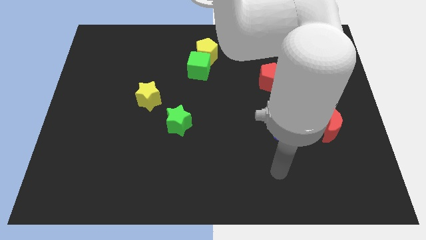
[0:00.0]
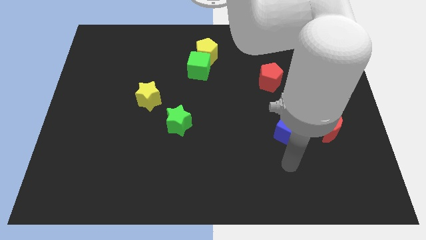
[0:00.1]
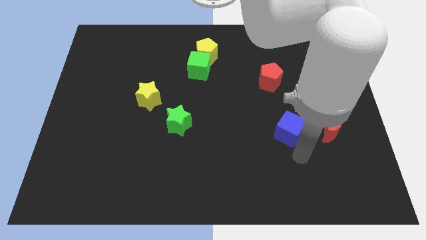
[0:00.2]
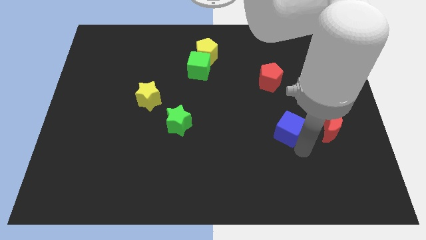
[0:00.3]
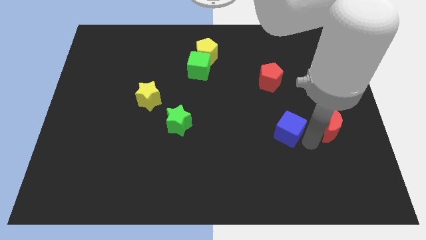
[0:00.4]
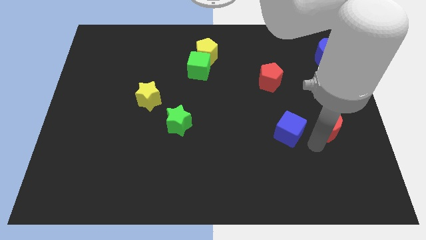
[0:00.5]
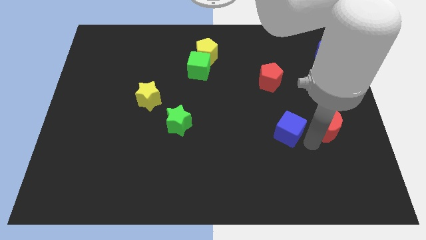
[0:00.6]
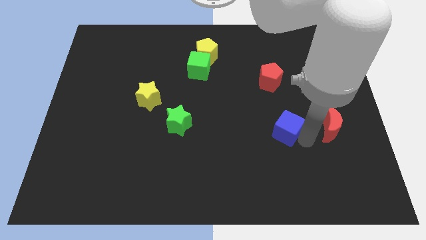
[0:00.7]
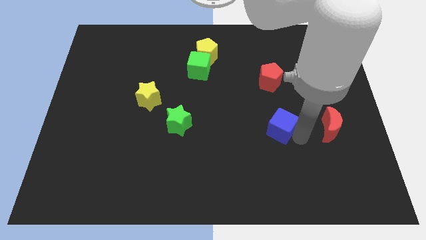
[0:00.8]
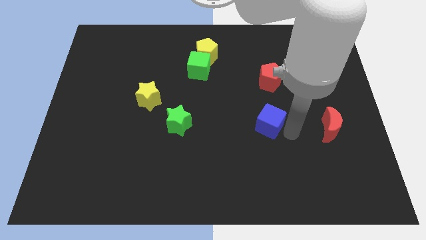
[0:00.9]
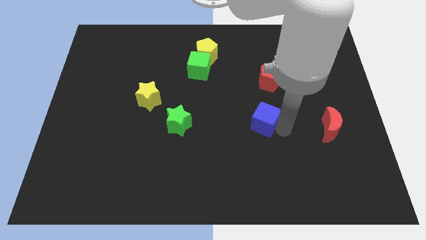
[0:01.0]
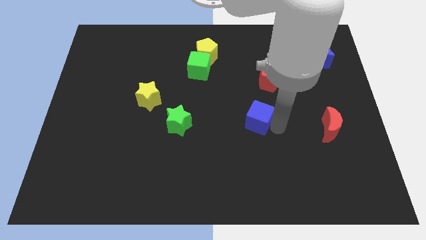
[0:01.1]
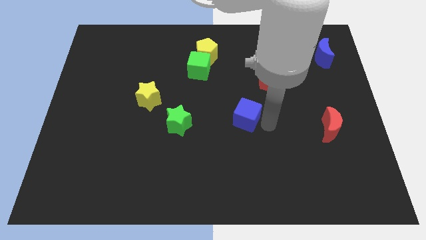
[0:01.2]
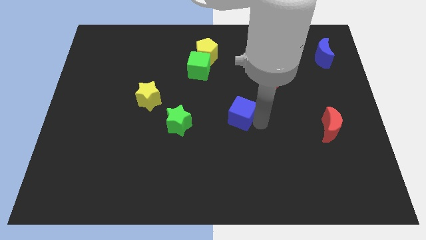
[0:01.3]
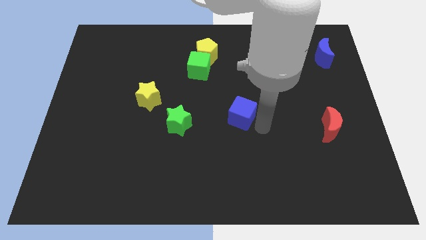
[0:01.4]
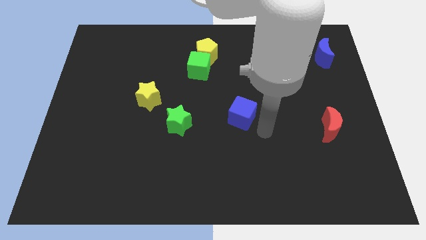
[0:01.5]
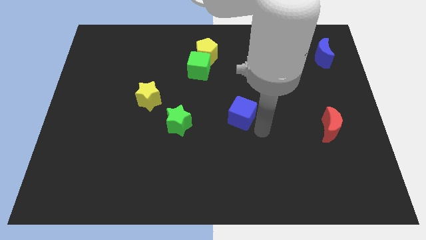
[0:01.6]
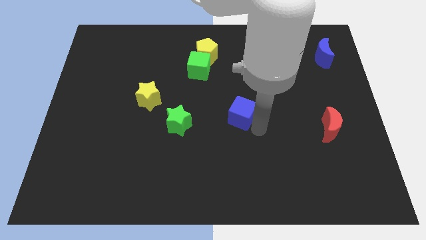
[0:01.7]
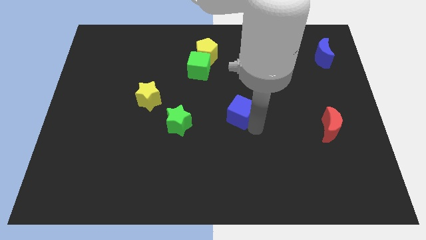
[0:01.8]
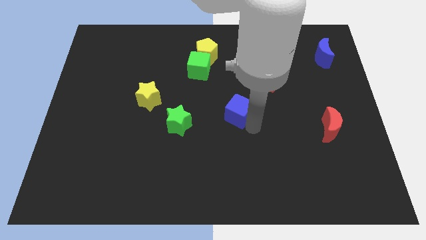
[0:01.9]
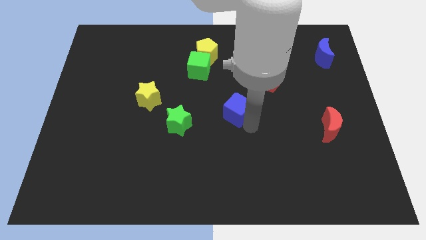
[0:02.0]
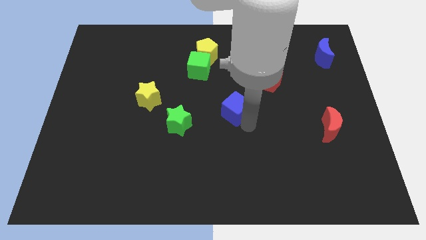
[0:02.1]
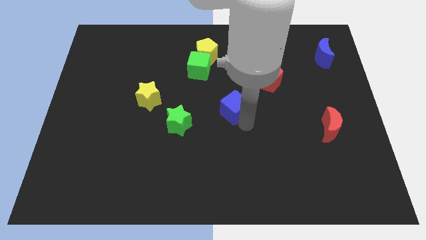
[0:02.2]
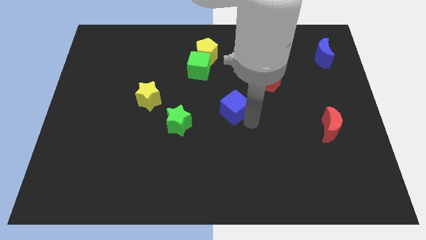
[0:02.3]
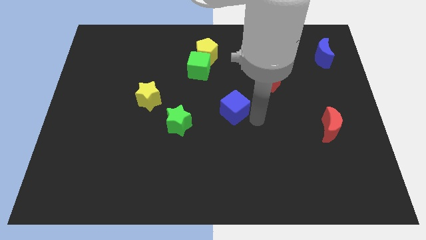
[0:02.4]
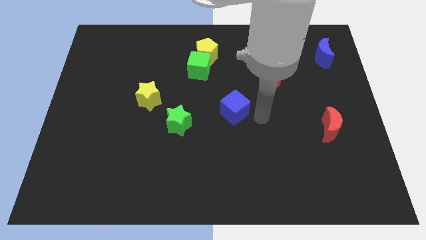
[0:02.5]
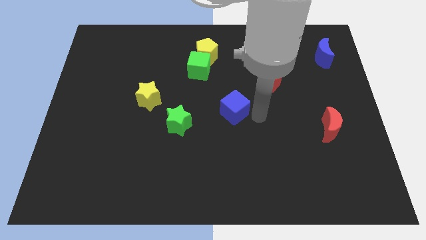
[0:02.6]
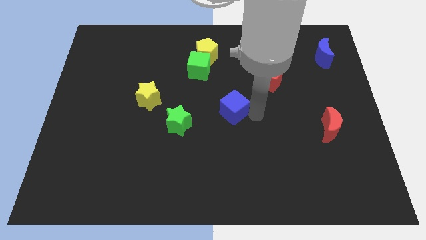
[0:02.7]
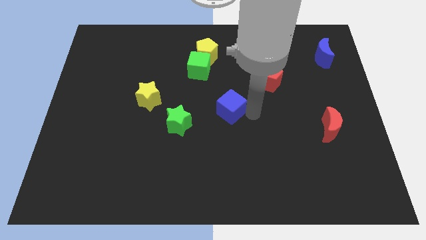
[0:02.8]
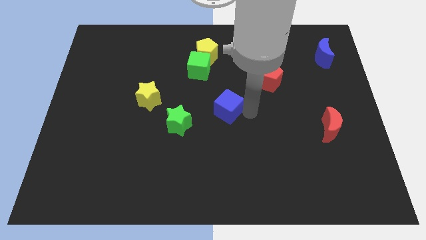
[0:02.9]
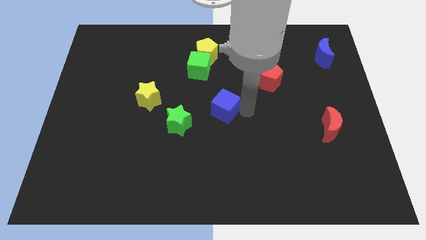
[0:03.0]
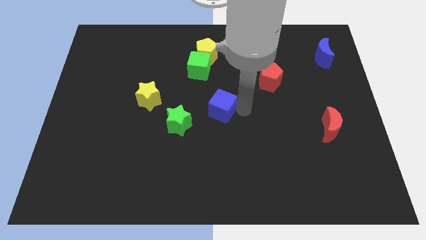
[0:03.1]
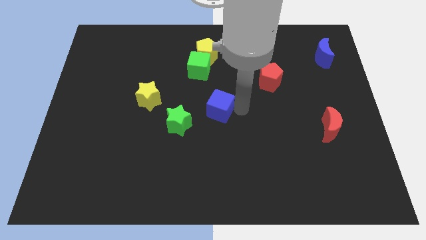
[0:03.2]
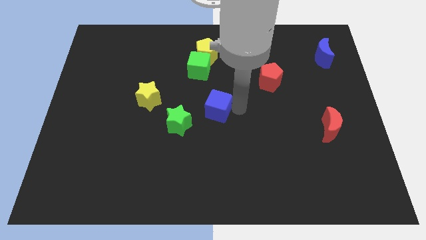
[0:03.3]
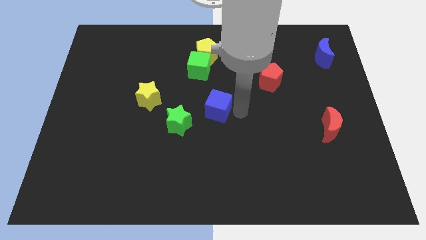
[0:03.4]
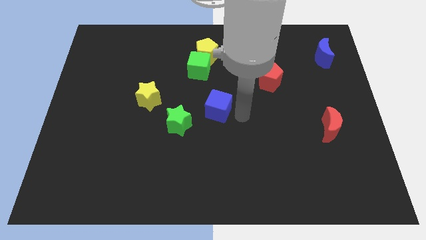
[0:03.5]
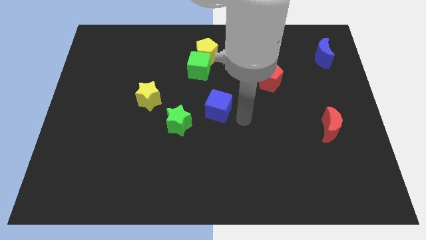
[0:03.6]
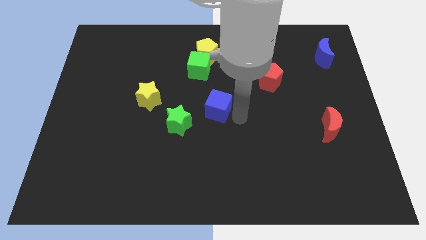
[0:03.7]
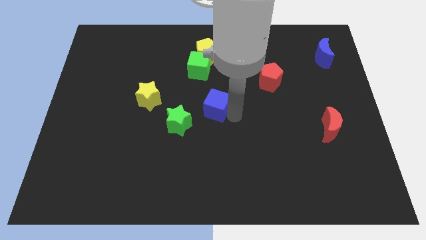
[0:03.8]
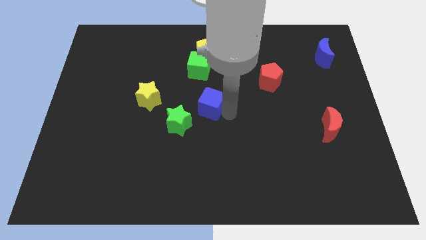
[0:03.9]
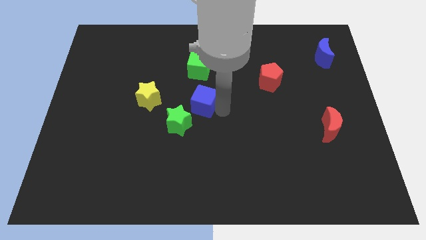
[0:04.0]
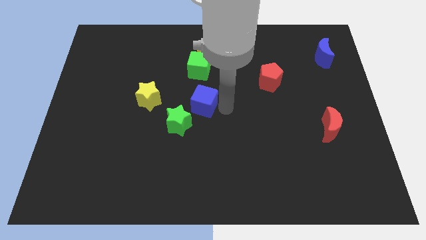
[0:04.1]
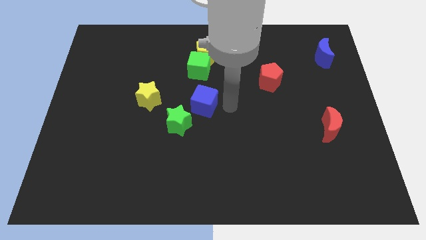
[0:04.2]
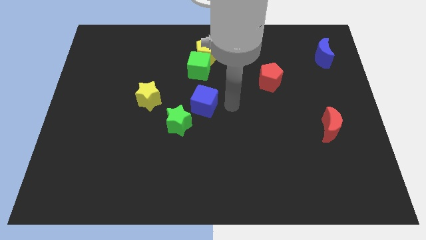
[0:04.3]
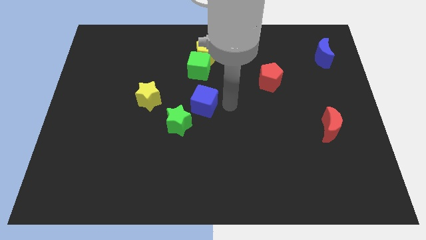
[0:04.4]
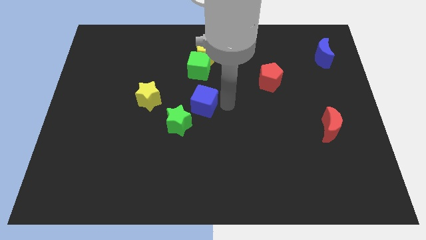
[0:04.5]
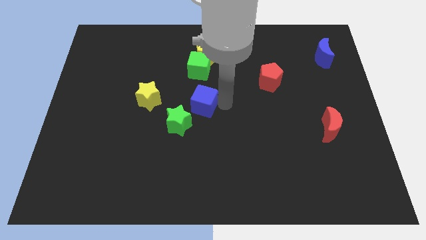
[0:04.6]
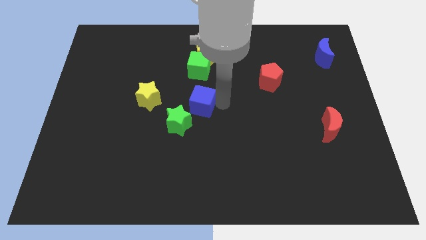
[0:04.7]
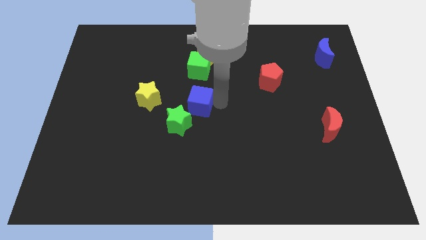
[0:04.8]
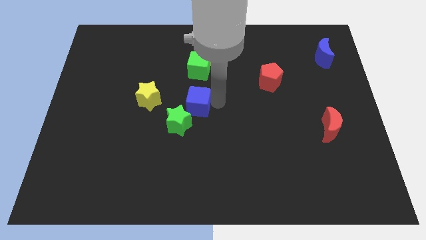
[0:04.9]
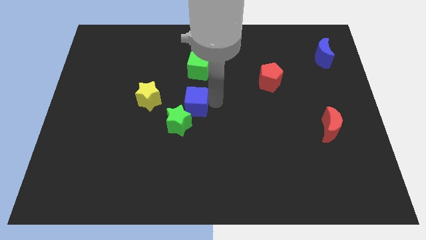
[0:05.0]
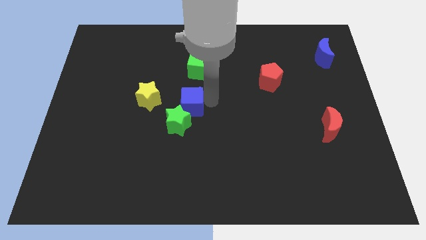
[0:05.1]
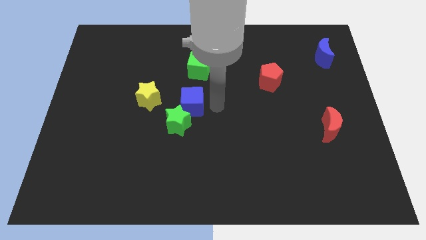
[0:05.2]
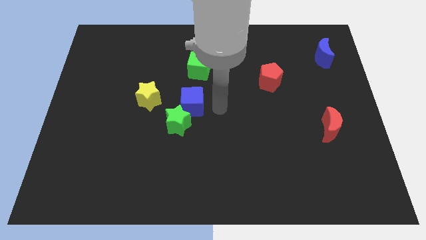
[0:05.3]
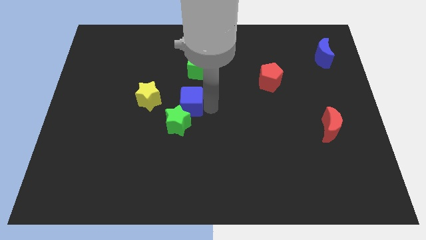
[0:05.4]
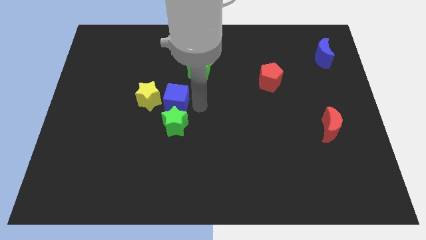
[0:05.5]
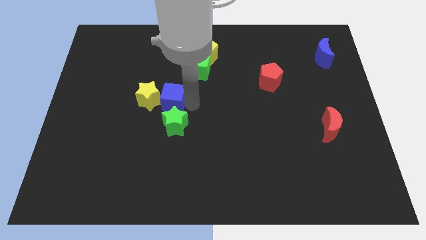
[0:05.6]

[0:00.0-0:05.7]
move the blue cube next to the yellow star

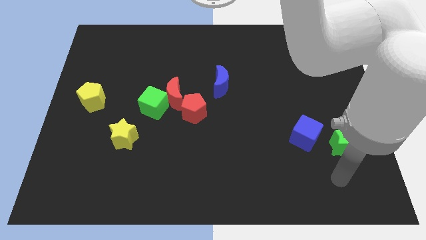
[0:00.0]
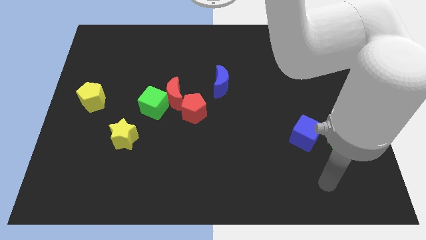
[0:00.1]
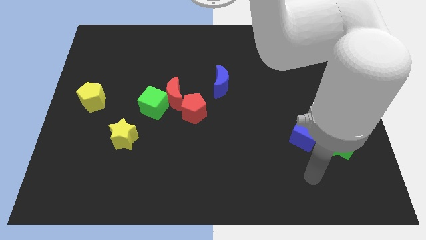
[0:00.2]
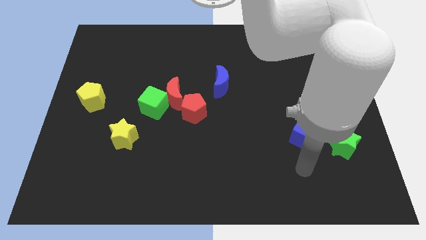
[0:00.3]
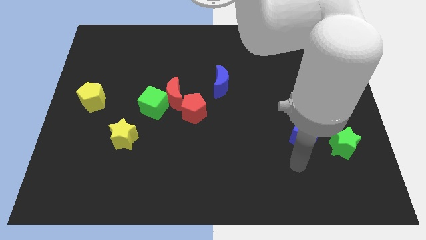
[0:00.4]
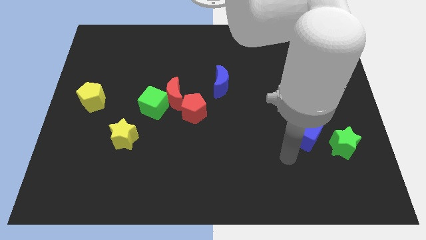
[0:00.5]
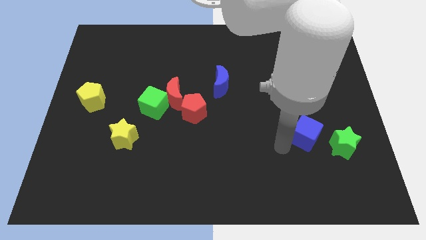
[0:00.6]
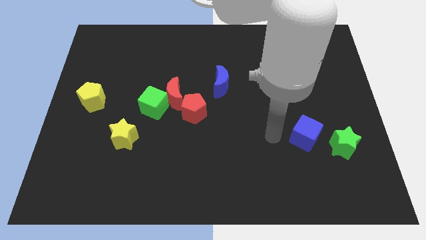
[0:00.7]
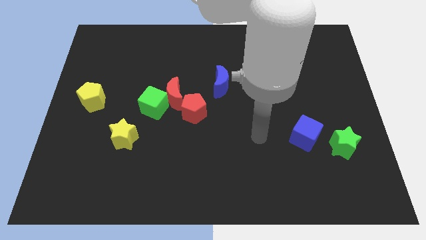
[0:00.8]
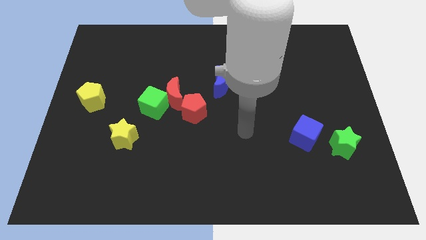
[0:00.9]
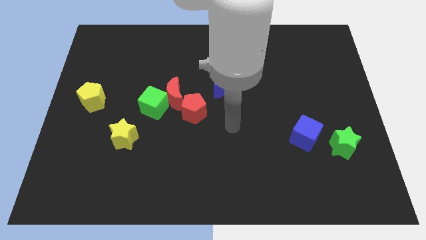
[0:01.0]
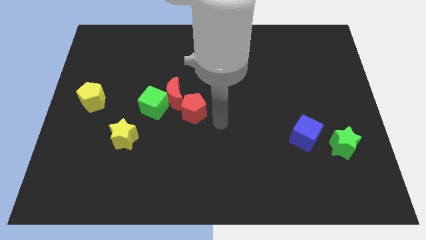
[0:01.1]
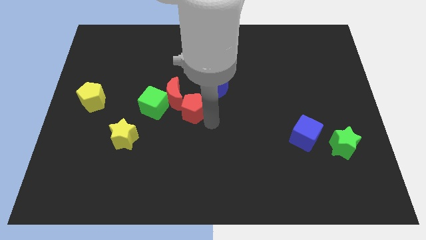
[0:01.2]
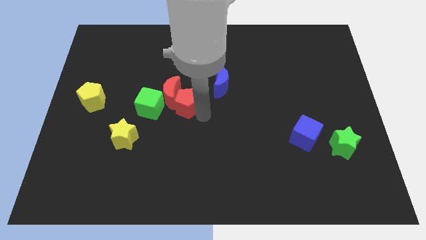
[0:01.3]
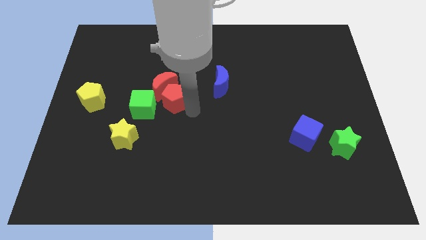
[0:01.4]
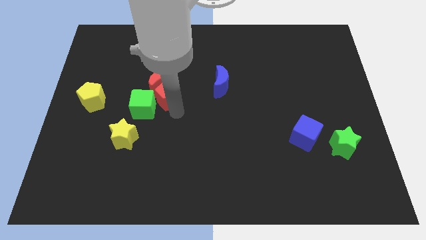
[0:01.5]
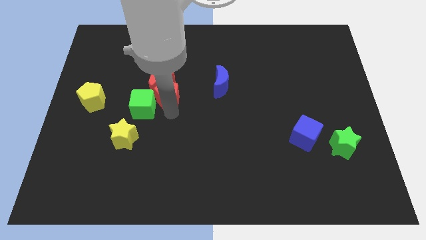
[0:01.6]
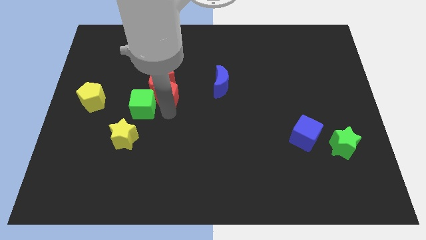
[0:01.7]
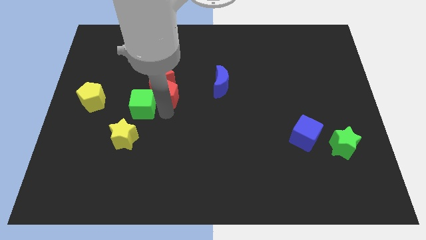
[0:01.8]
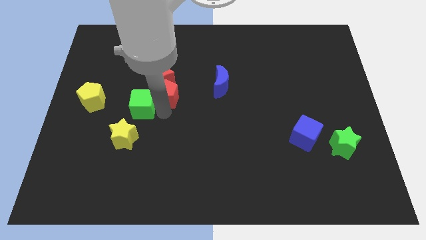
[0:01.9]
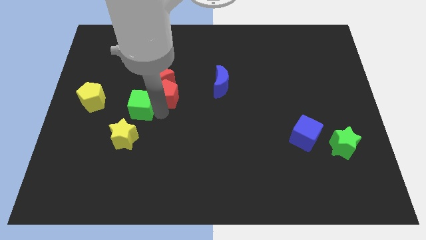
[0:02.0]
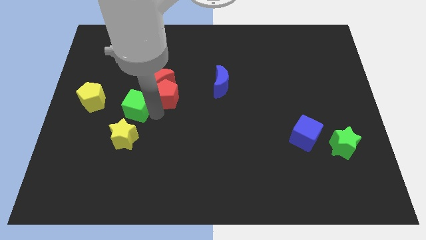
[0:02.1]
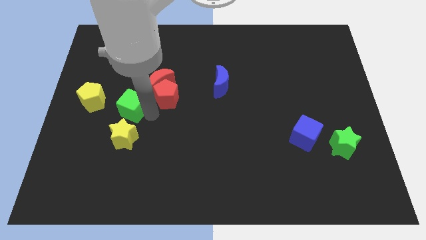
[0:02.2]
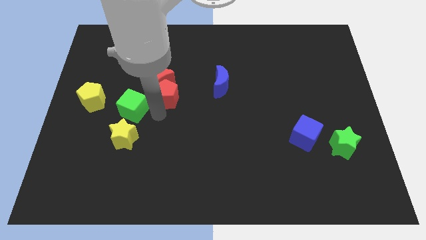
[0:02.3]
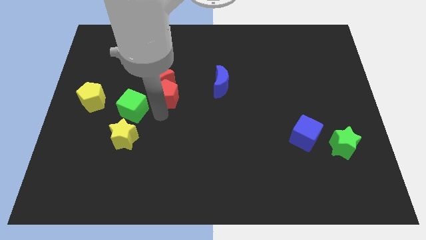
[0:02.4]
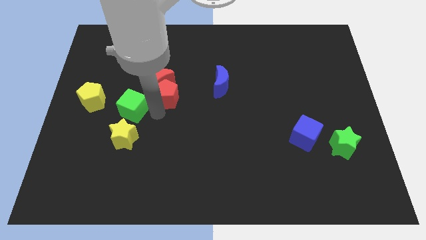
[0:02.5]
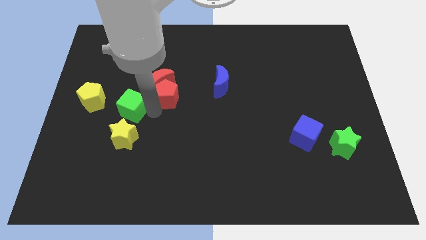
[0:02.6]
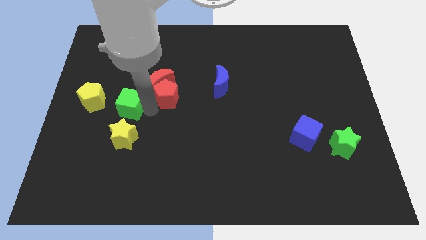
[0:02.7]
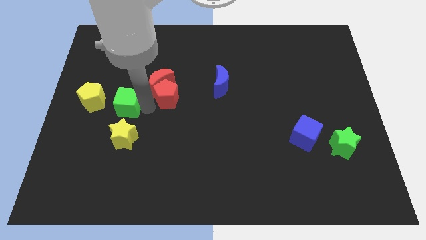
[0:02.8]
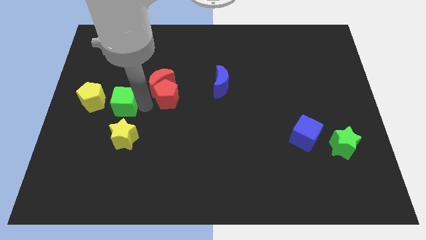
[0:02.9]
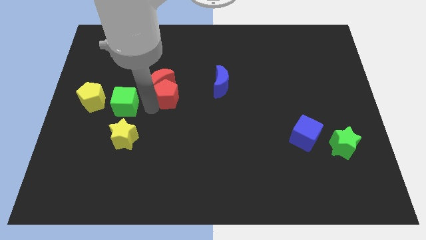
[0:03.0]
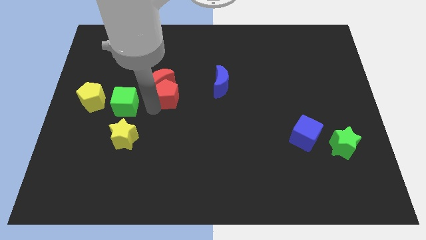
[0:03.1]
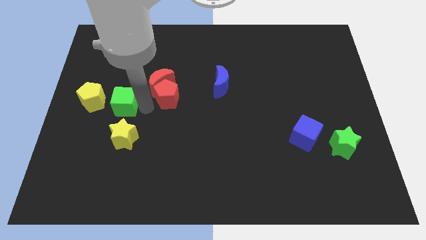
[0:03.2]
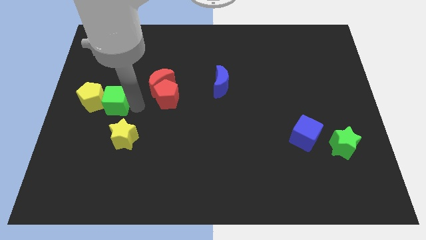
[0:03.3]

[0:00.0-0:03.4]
move the green cube next to the yellow pentagon
